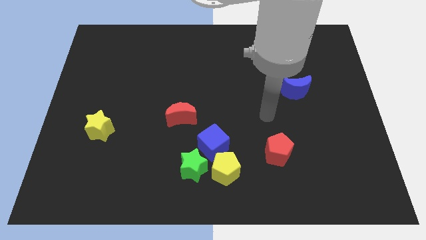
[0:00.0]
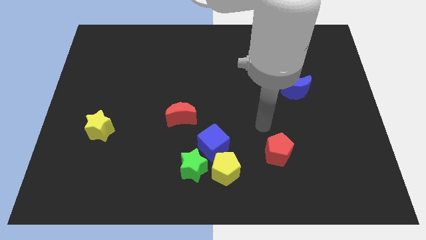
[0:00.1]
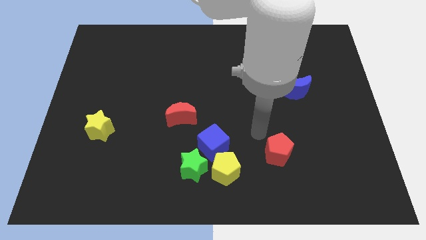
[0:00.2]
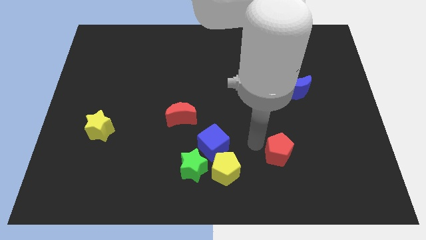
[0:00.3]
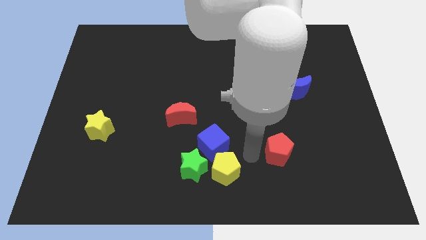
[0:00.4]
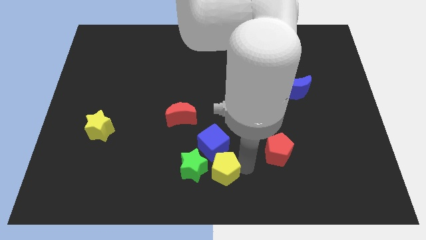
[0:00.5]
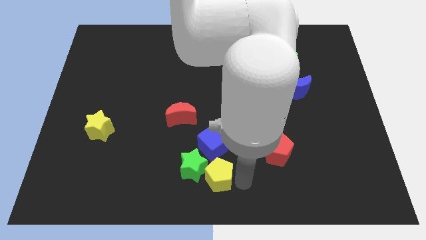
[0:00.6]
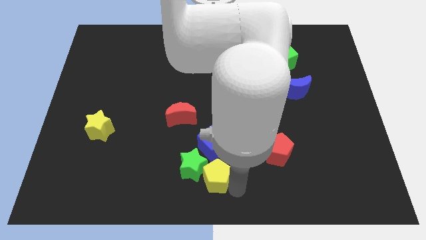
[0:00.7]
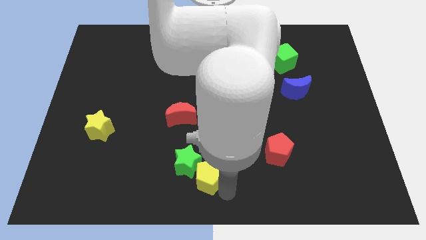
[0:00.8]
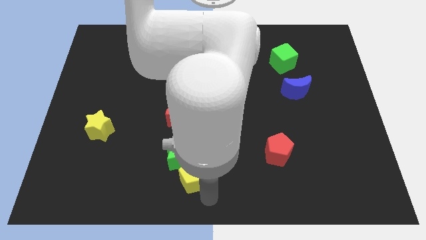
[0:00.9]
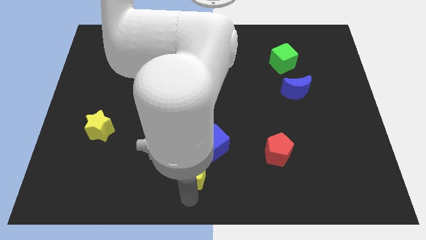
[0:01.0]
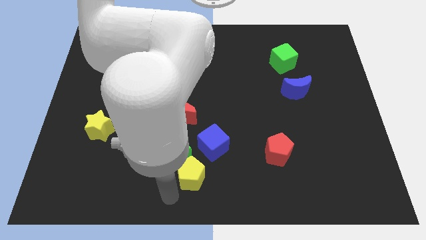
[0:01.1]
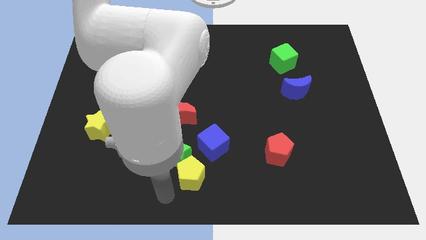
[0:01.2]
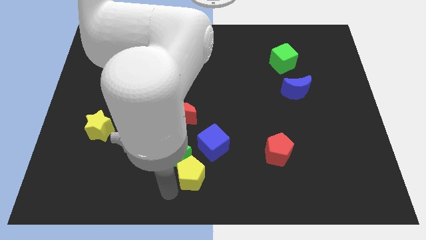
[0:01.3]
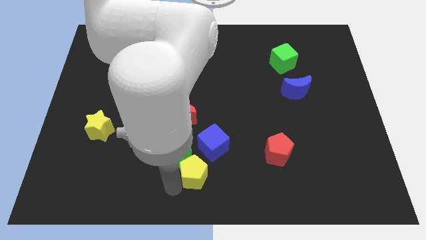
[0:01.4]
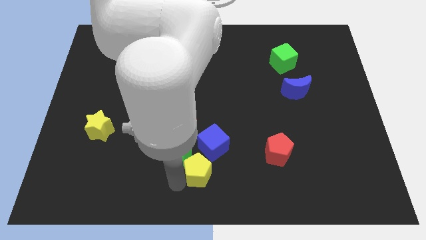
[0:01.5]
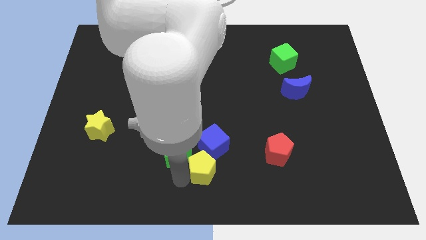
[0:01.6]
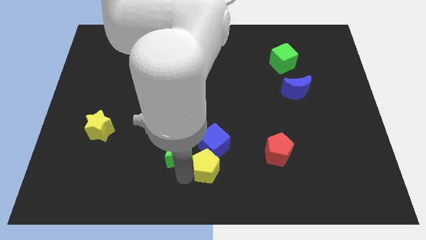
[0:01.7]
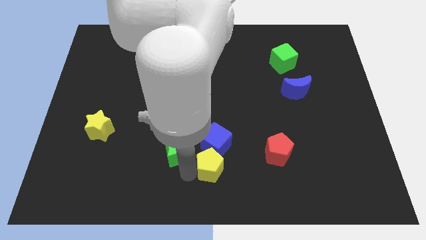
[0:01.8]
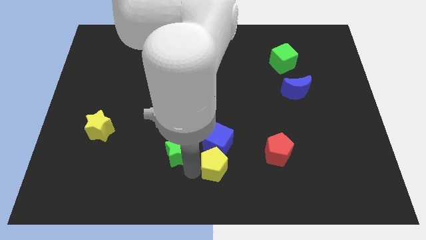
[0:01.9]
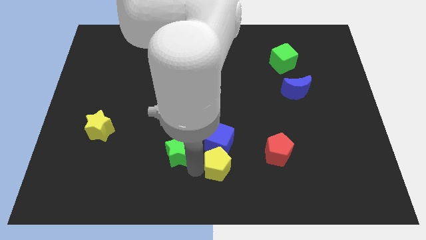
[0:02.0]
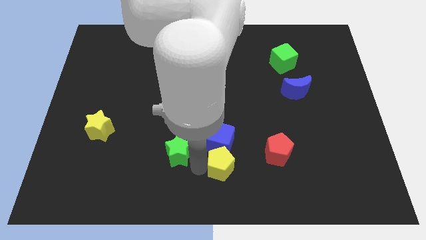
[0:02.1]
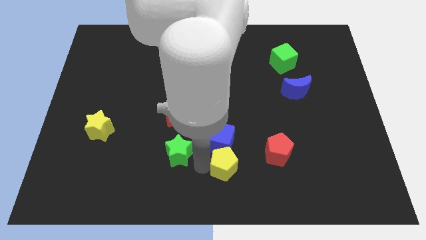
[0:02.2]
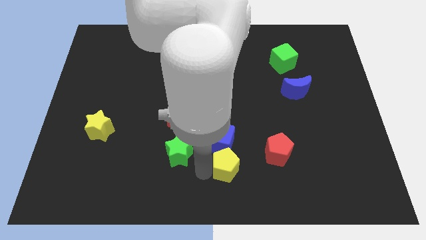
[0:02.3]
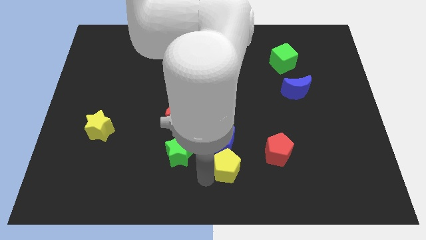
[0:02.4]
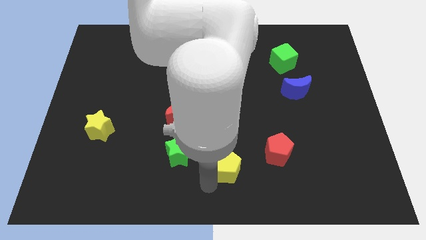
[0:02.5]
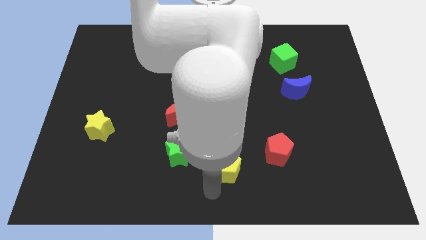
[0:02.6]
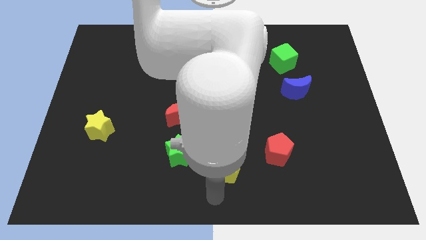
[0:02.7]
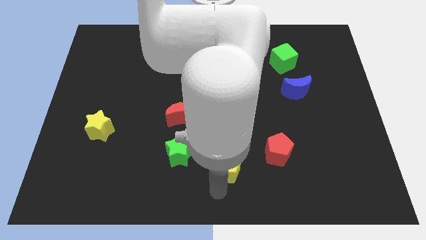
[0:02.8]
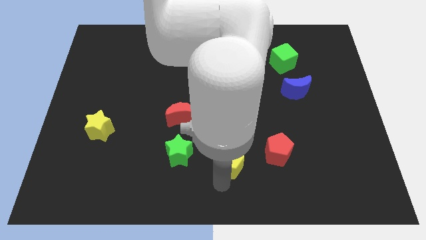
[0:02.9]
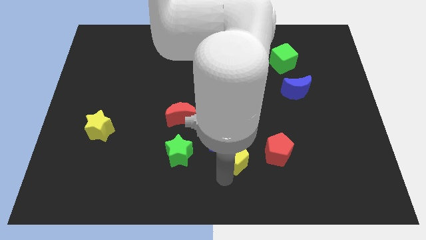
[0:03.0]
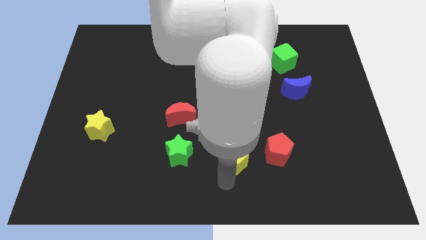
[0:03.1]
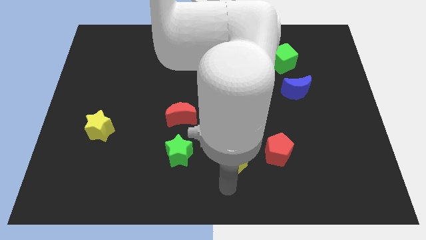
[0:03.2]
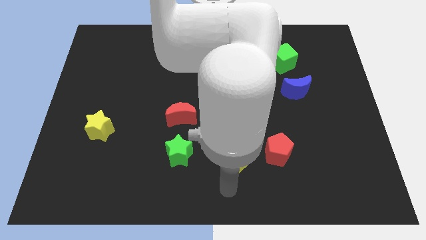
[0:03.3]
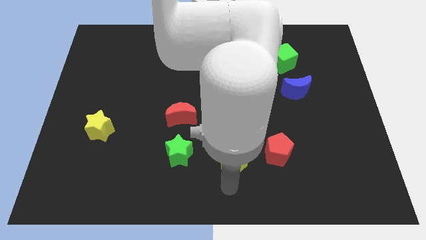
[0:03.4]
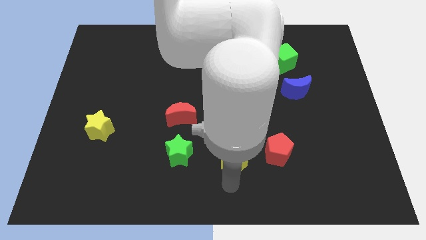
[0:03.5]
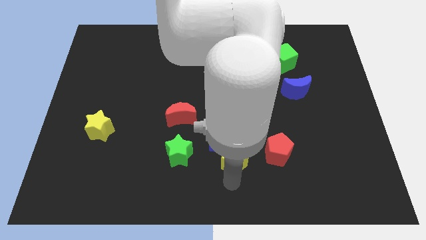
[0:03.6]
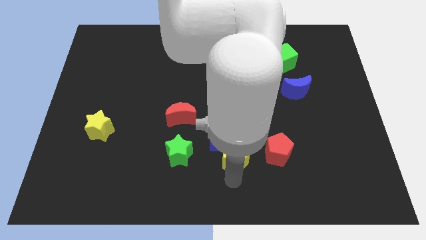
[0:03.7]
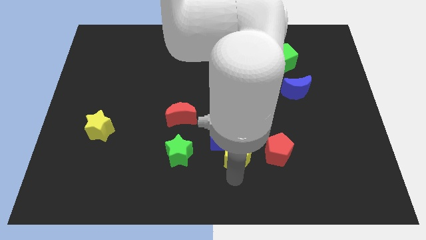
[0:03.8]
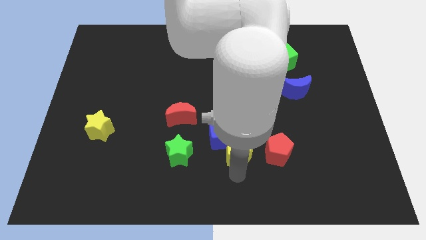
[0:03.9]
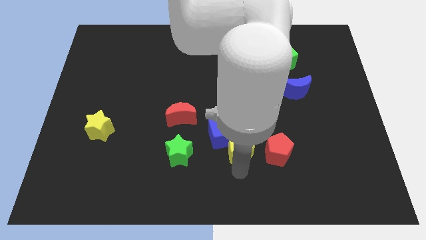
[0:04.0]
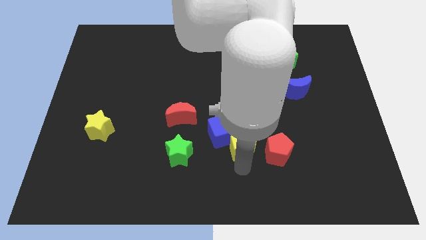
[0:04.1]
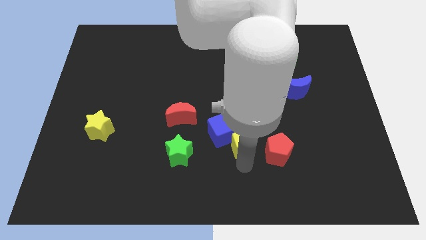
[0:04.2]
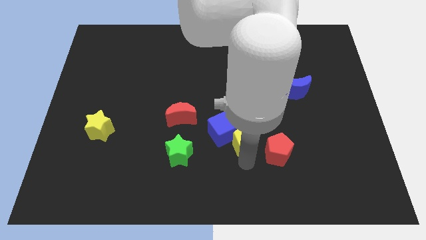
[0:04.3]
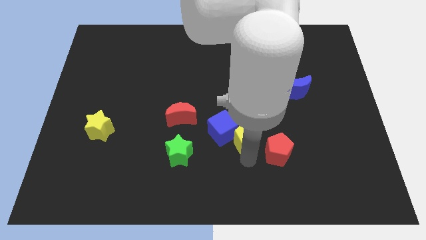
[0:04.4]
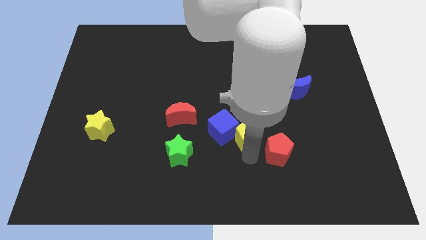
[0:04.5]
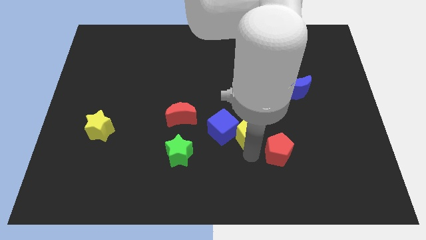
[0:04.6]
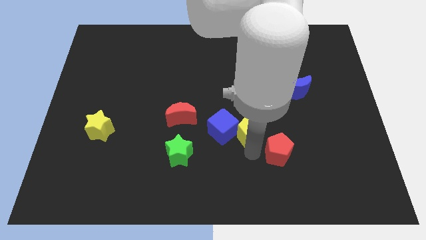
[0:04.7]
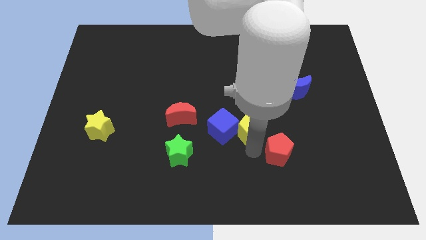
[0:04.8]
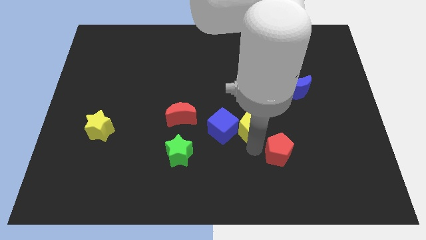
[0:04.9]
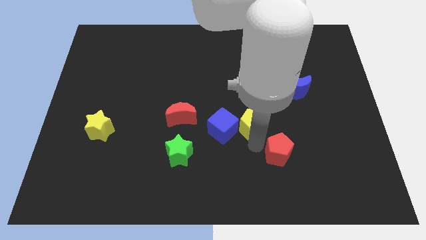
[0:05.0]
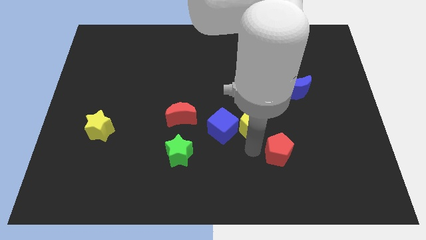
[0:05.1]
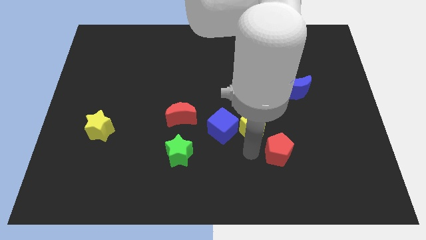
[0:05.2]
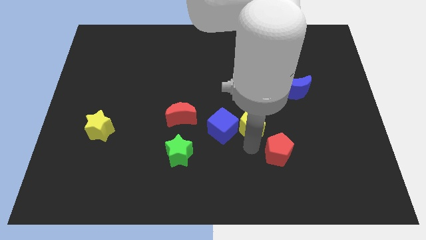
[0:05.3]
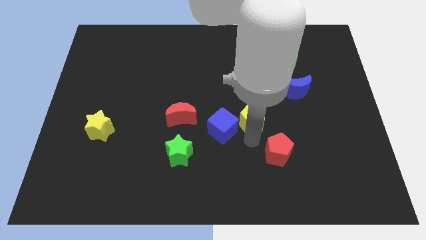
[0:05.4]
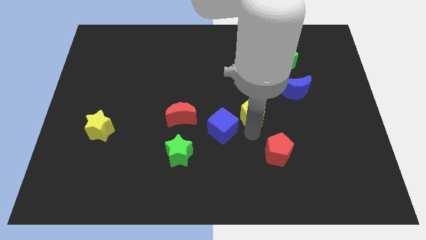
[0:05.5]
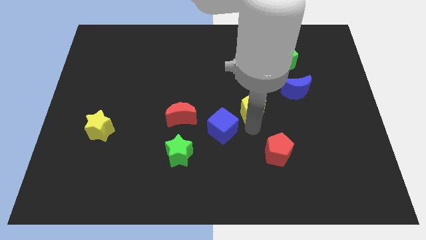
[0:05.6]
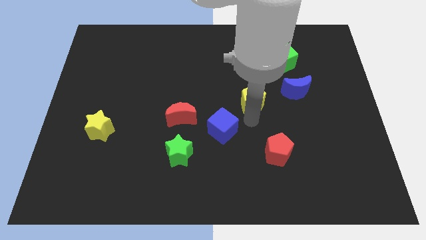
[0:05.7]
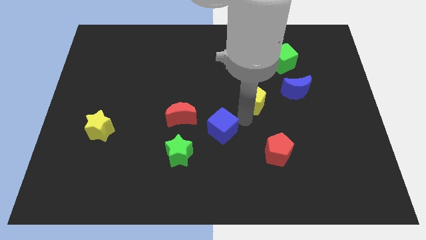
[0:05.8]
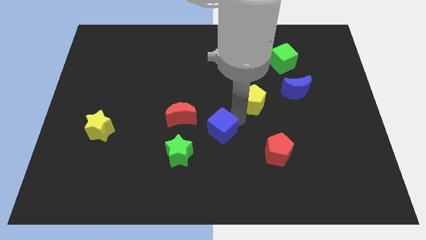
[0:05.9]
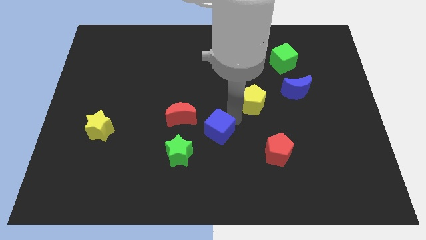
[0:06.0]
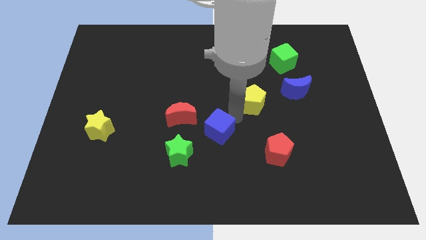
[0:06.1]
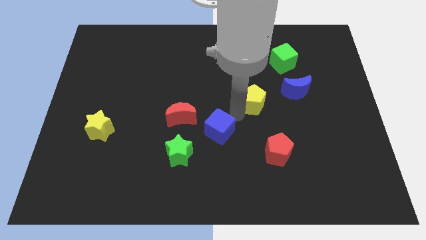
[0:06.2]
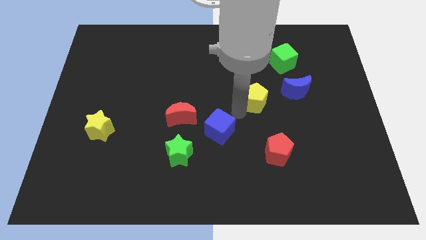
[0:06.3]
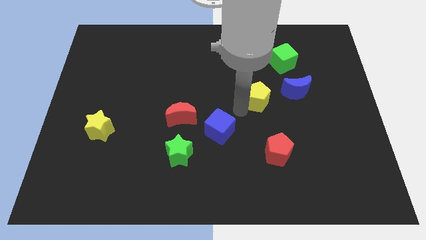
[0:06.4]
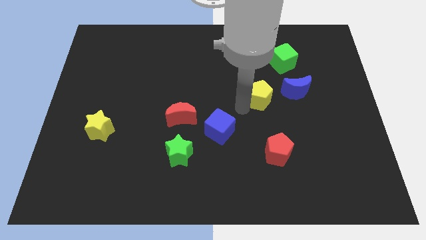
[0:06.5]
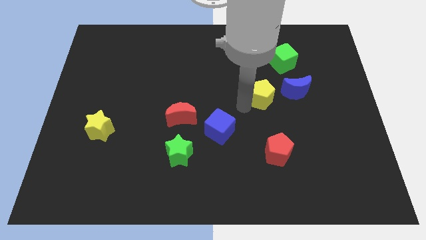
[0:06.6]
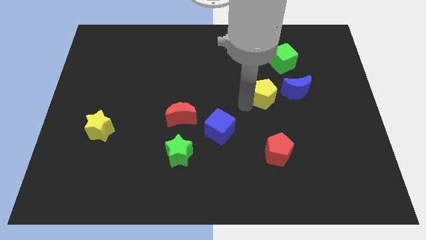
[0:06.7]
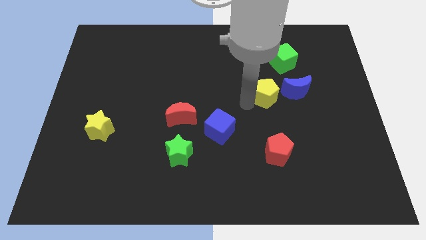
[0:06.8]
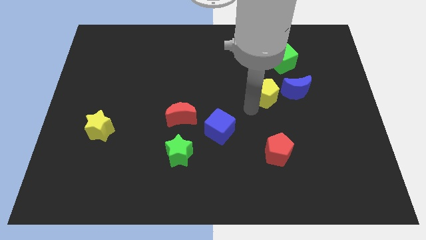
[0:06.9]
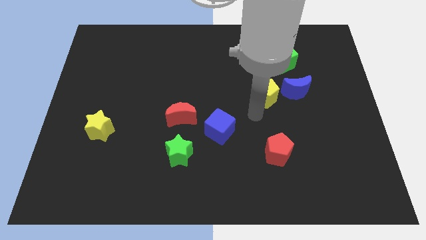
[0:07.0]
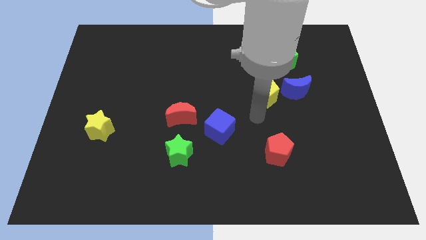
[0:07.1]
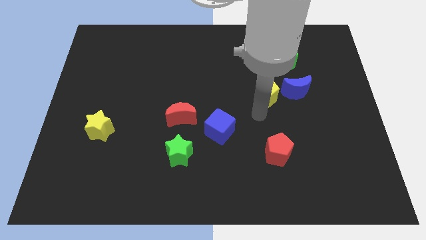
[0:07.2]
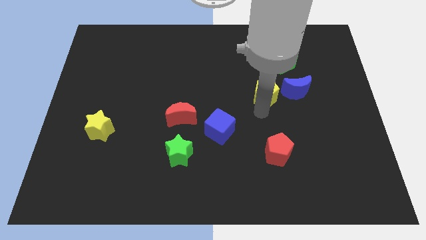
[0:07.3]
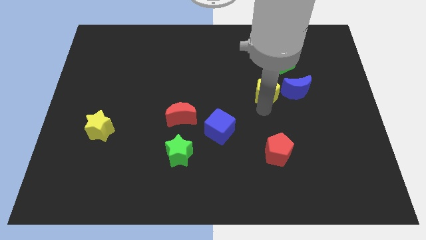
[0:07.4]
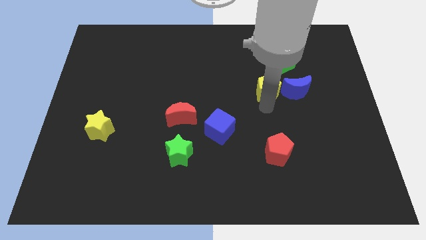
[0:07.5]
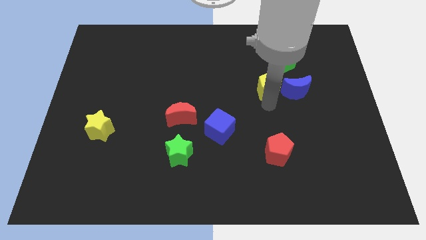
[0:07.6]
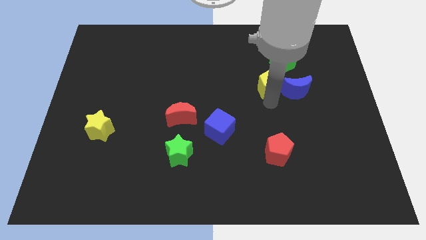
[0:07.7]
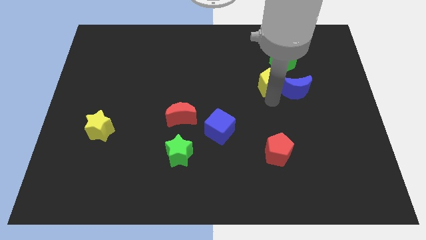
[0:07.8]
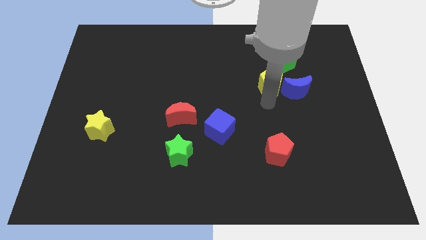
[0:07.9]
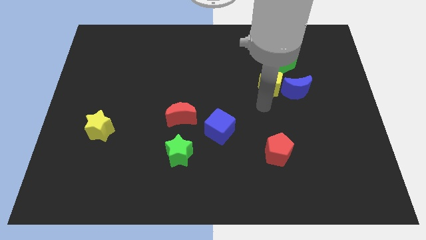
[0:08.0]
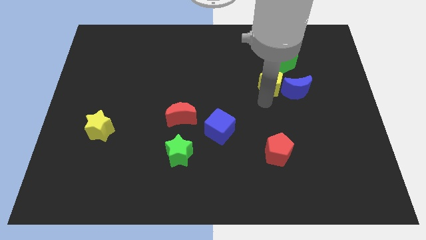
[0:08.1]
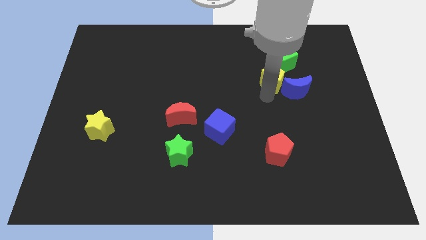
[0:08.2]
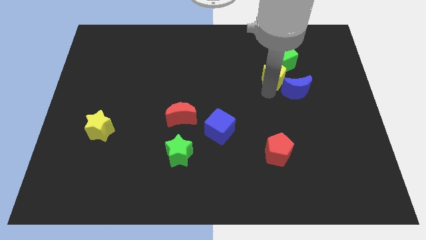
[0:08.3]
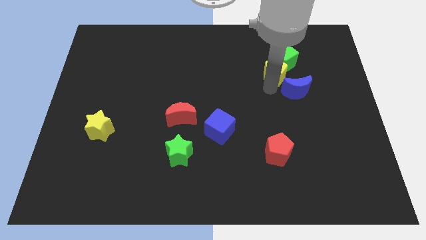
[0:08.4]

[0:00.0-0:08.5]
push the yellow pentagon to the green cube
